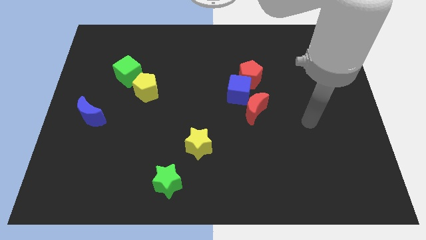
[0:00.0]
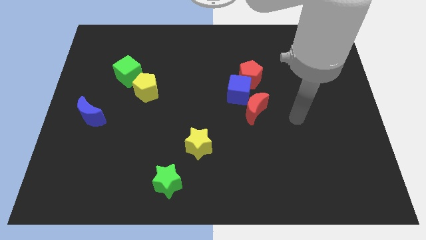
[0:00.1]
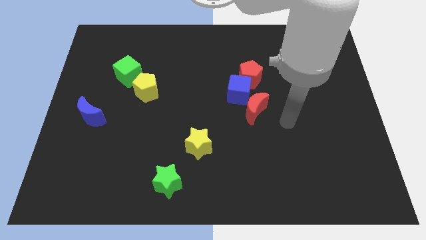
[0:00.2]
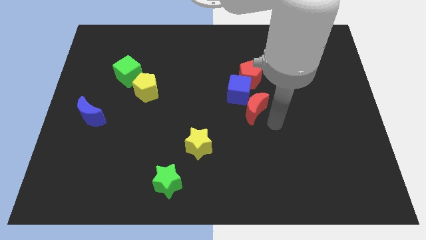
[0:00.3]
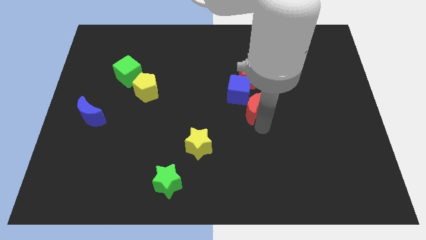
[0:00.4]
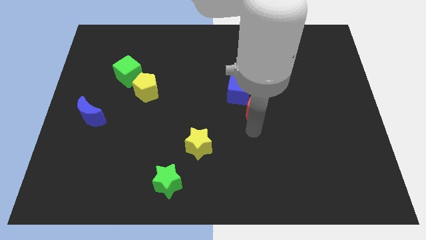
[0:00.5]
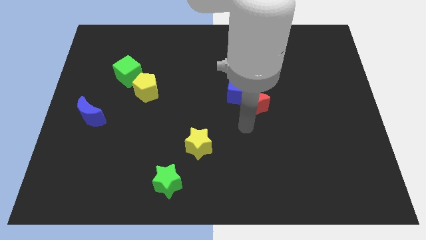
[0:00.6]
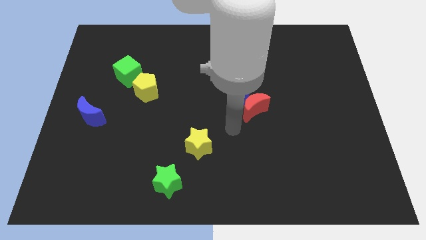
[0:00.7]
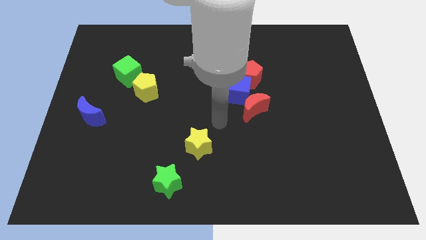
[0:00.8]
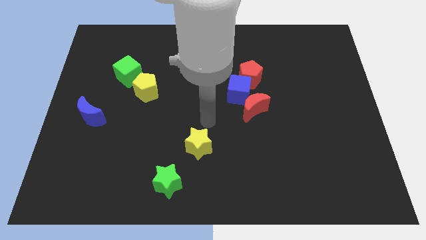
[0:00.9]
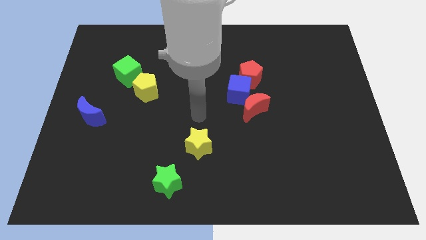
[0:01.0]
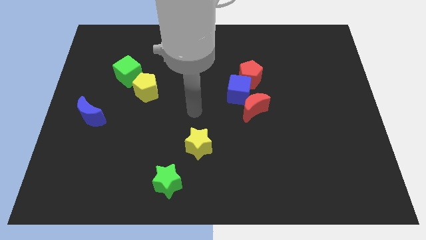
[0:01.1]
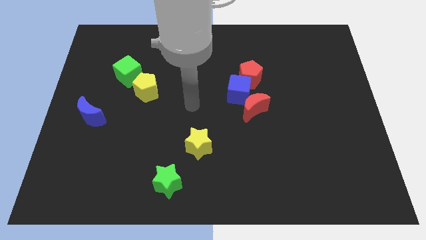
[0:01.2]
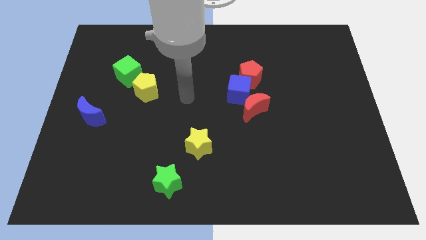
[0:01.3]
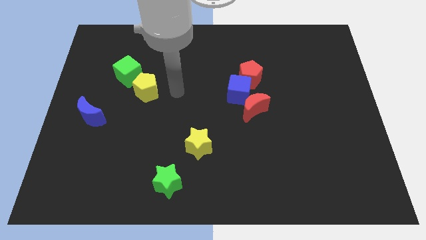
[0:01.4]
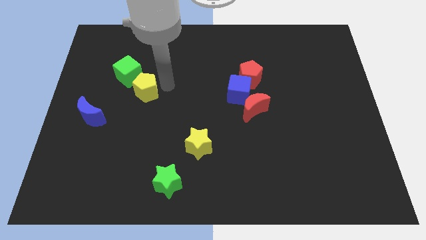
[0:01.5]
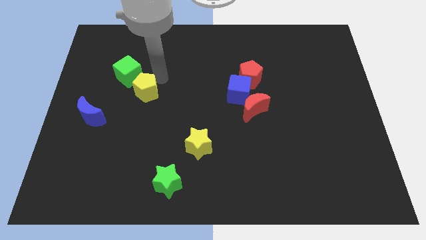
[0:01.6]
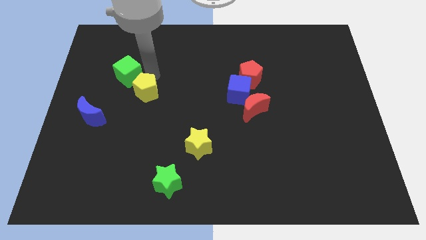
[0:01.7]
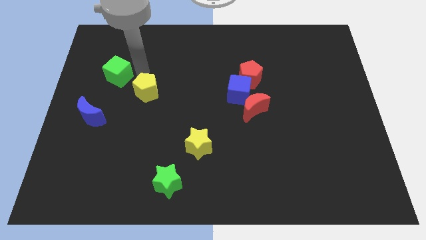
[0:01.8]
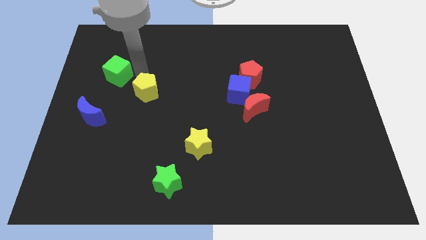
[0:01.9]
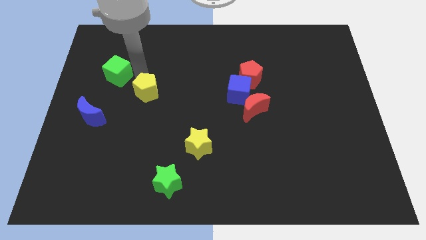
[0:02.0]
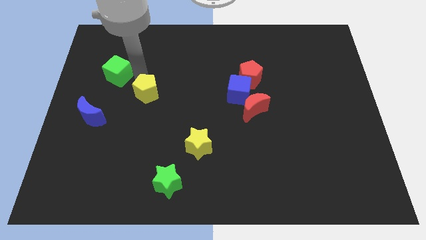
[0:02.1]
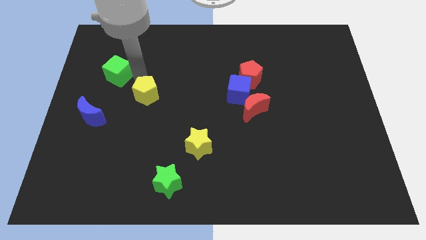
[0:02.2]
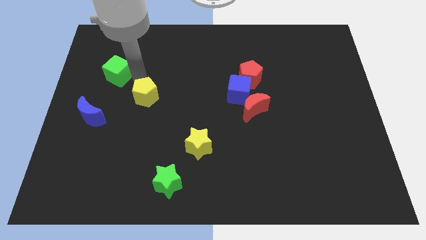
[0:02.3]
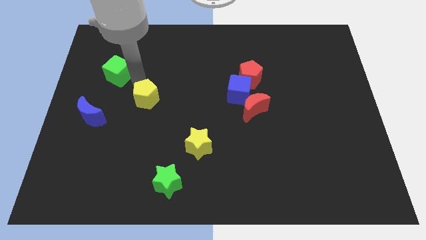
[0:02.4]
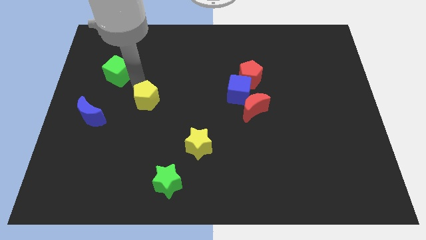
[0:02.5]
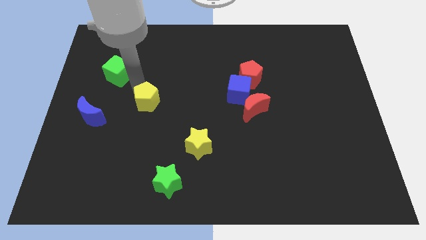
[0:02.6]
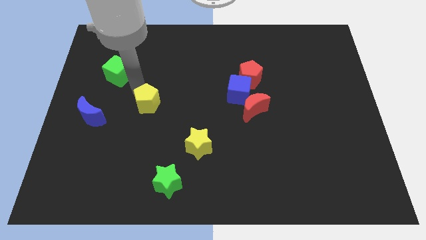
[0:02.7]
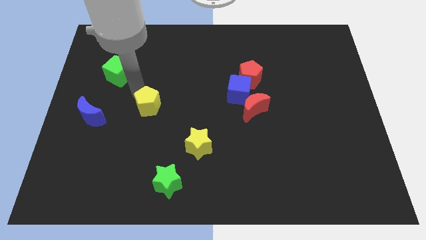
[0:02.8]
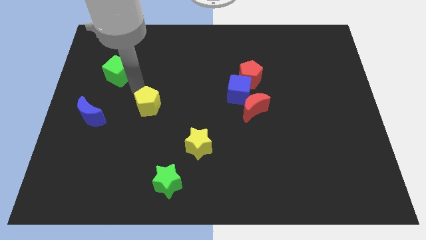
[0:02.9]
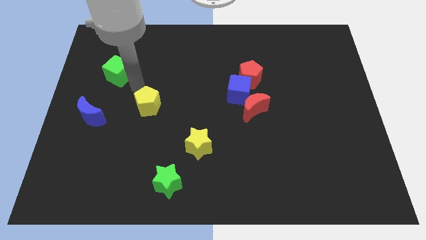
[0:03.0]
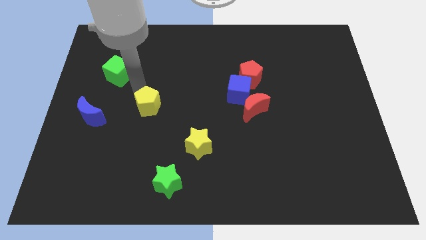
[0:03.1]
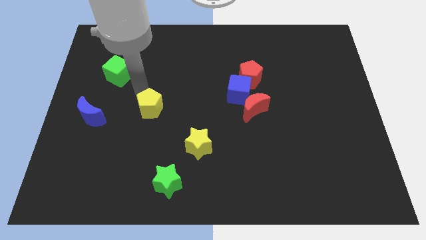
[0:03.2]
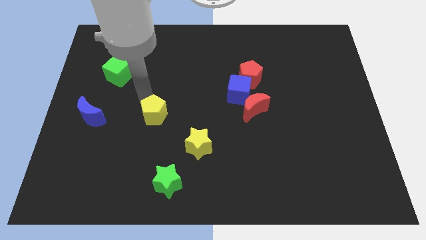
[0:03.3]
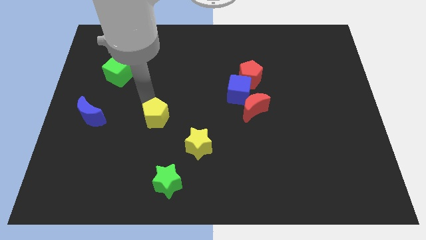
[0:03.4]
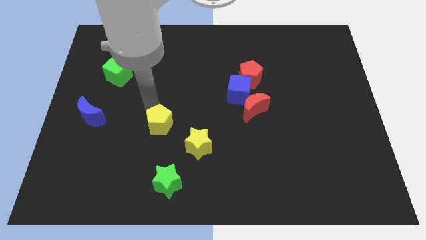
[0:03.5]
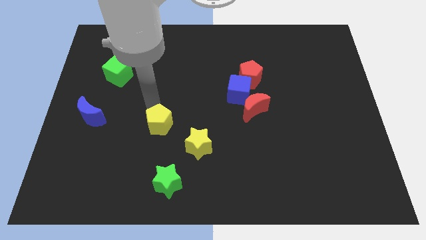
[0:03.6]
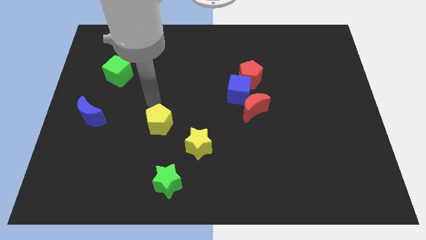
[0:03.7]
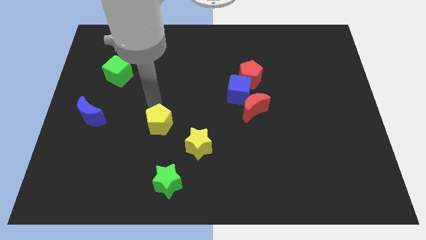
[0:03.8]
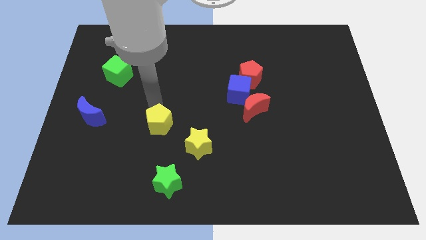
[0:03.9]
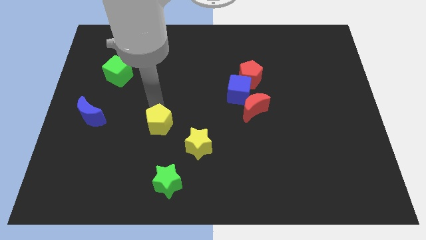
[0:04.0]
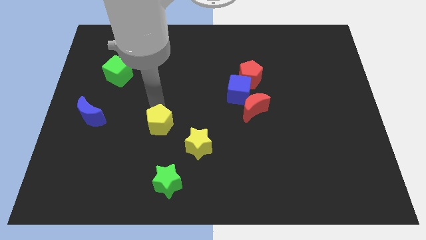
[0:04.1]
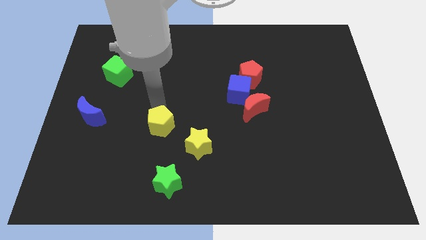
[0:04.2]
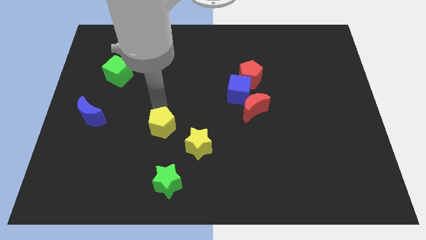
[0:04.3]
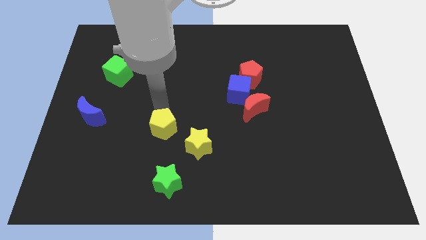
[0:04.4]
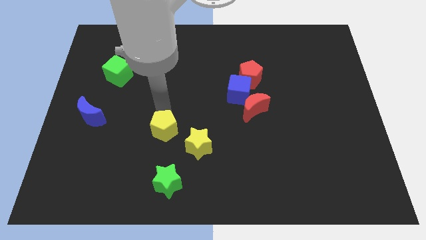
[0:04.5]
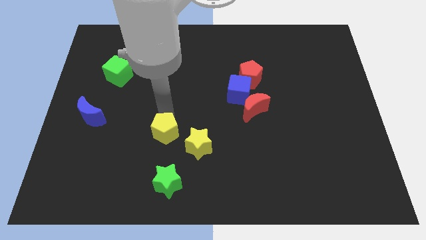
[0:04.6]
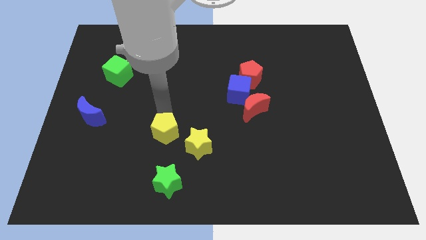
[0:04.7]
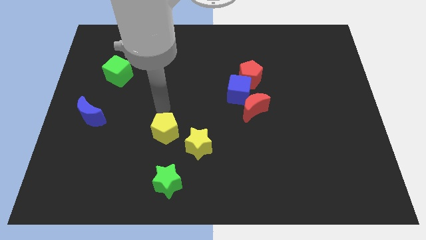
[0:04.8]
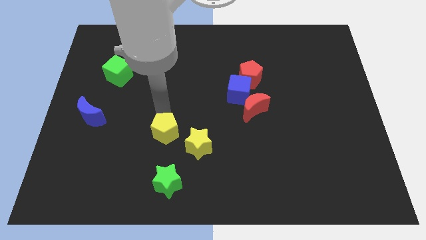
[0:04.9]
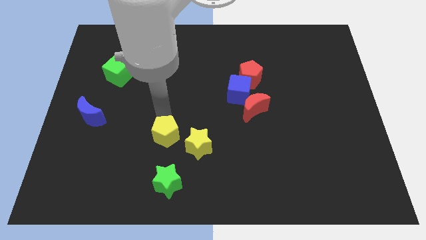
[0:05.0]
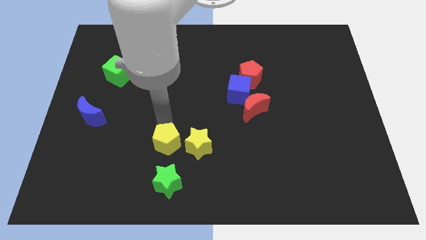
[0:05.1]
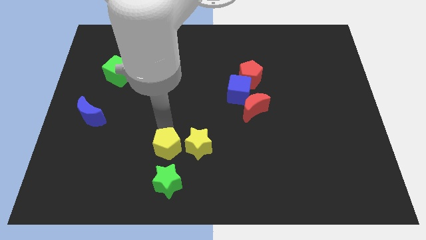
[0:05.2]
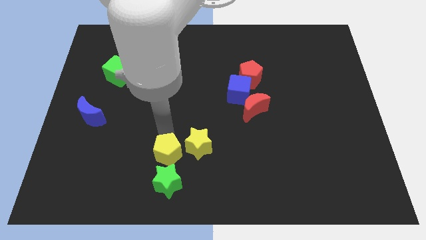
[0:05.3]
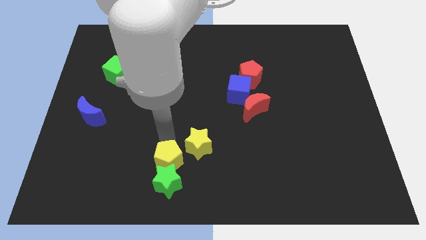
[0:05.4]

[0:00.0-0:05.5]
slide the yellow pentagon to the green star

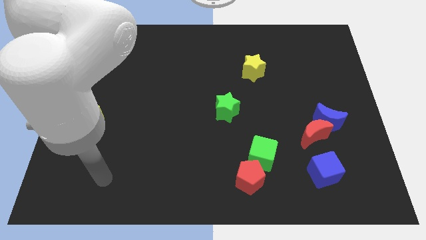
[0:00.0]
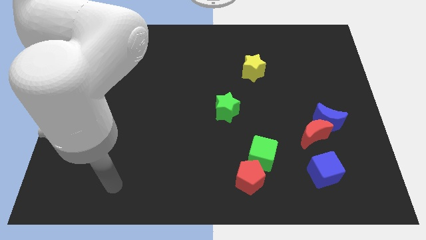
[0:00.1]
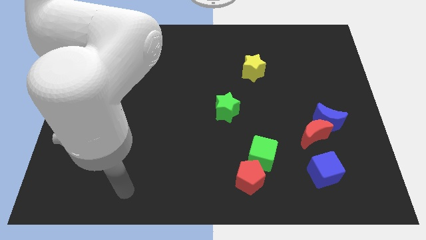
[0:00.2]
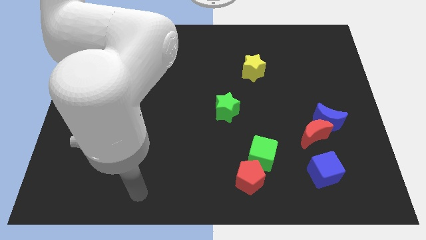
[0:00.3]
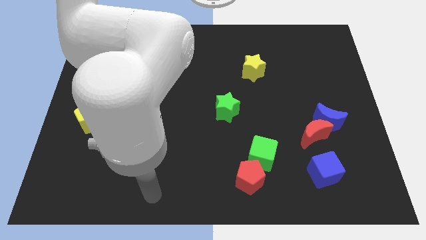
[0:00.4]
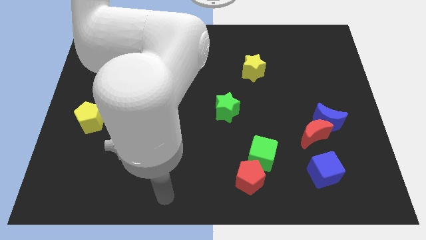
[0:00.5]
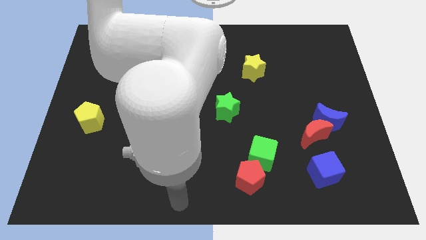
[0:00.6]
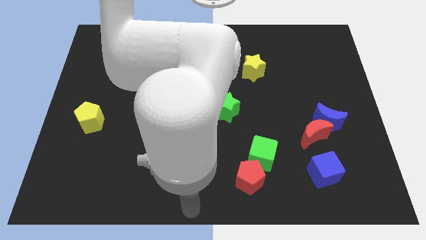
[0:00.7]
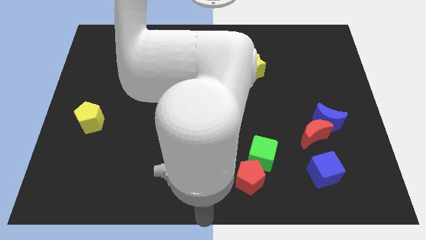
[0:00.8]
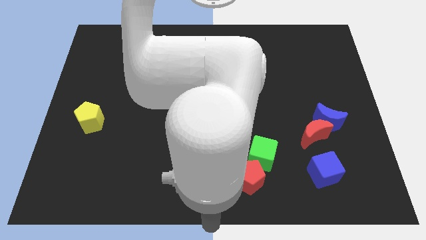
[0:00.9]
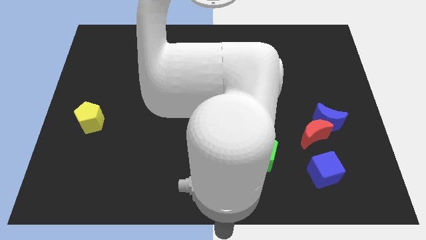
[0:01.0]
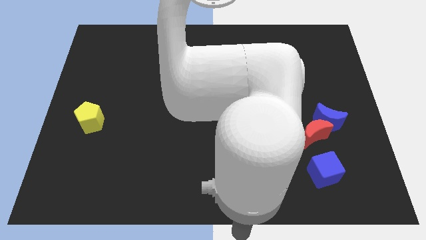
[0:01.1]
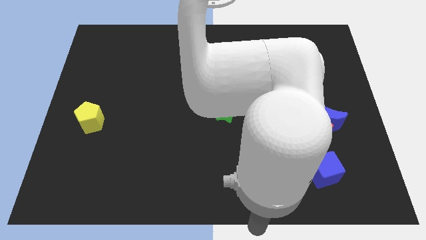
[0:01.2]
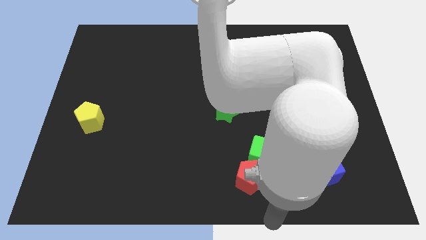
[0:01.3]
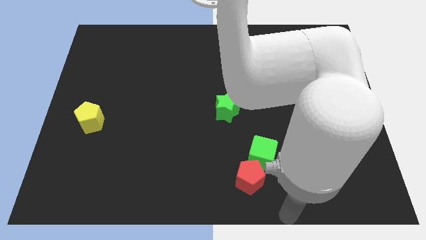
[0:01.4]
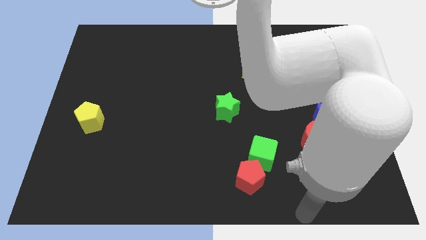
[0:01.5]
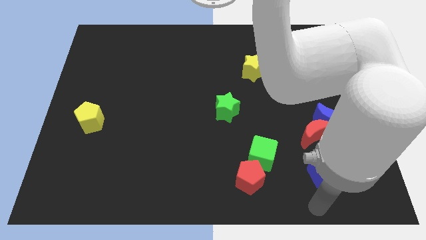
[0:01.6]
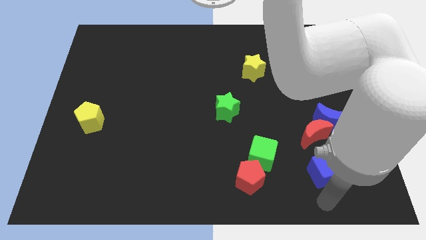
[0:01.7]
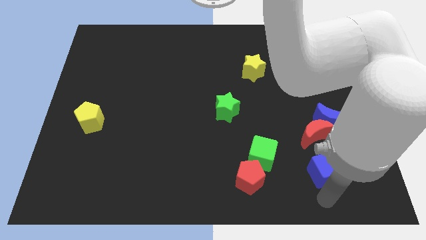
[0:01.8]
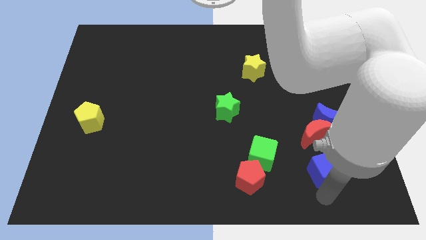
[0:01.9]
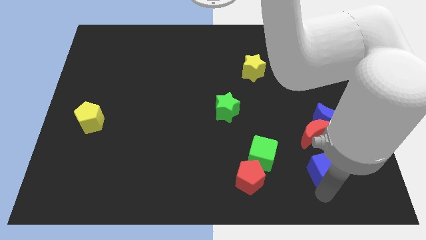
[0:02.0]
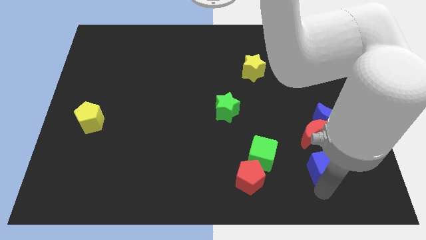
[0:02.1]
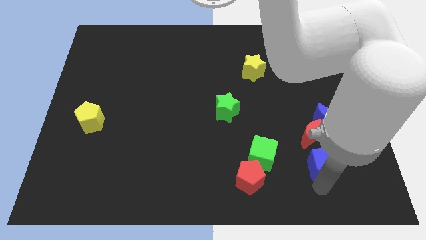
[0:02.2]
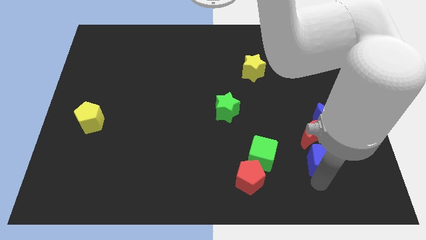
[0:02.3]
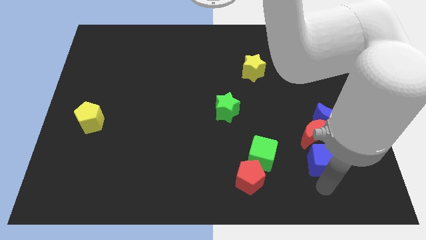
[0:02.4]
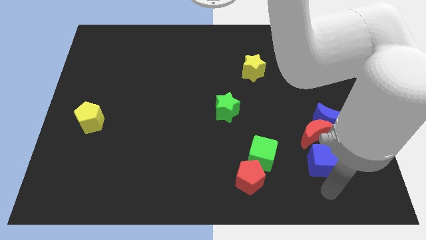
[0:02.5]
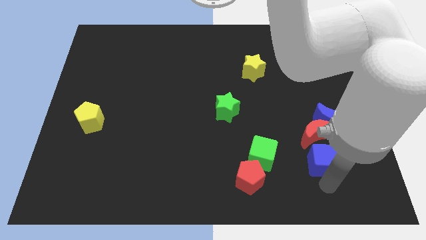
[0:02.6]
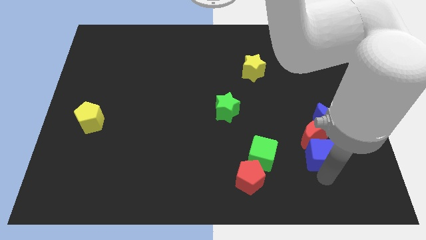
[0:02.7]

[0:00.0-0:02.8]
push the blue cube to the red moon
